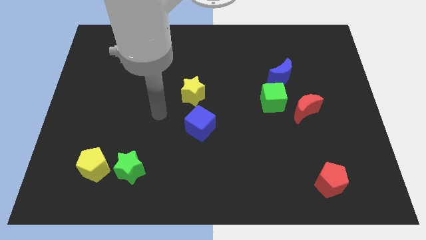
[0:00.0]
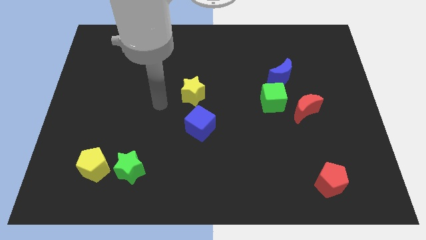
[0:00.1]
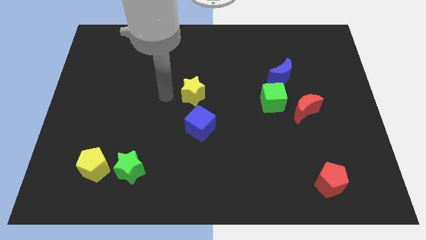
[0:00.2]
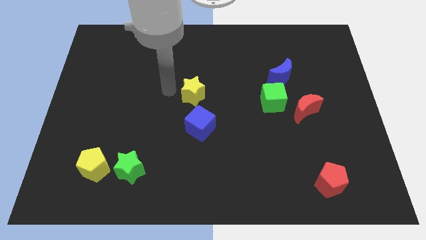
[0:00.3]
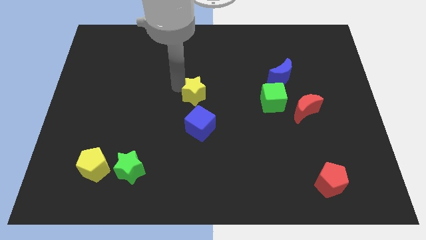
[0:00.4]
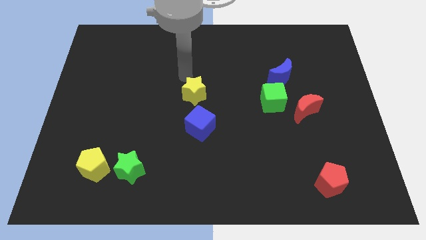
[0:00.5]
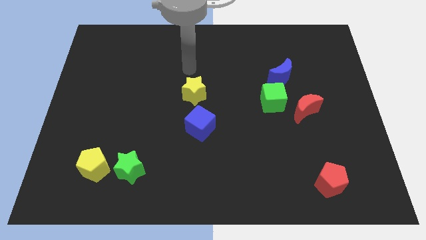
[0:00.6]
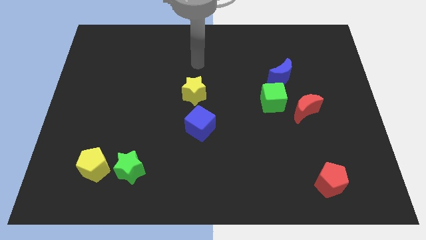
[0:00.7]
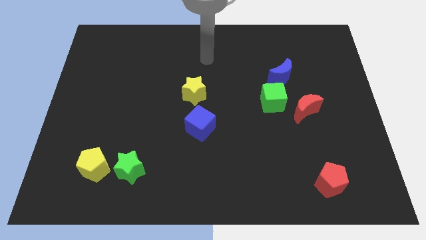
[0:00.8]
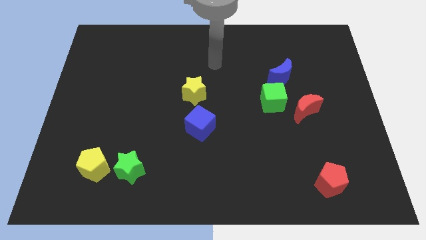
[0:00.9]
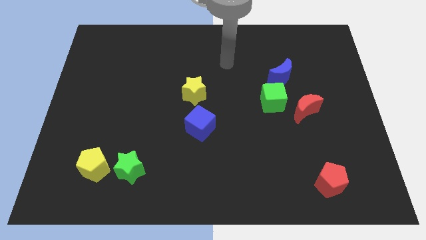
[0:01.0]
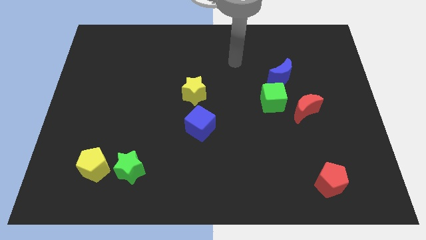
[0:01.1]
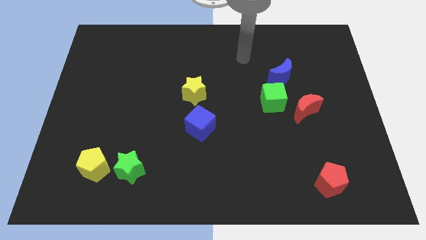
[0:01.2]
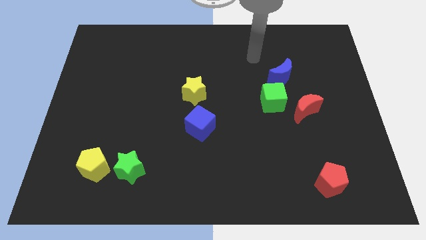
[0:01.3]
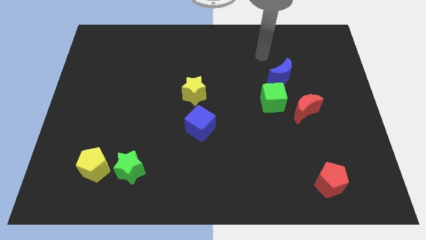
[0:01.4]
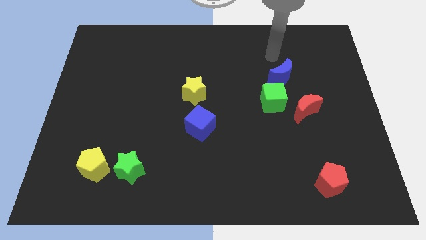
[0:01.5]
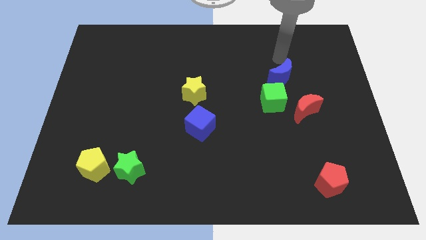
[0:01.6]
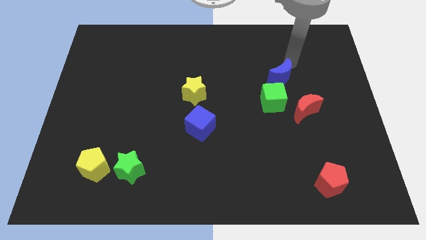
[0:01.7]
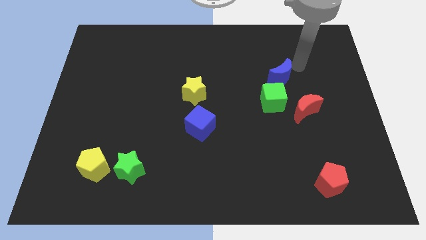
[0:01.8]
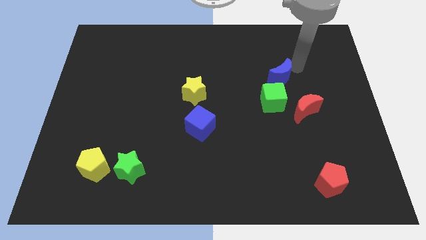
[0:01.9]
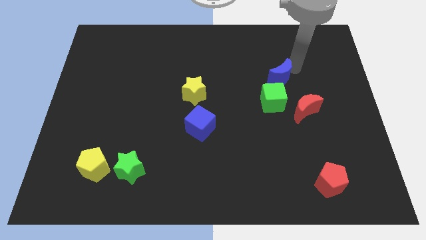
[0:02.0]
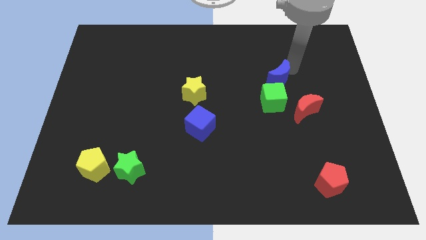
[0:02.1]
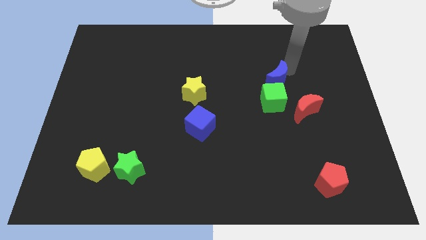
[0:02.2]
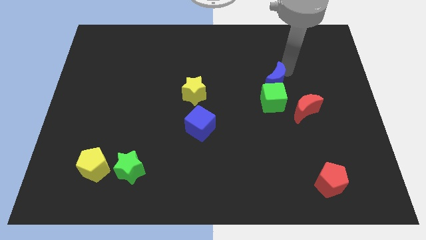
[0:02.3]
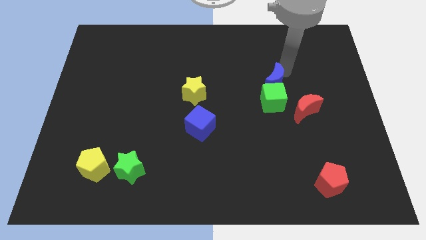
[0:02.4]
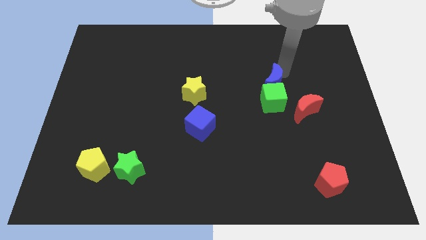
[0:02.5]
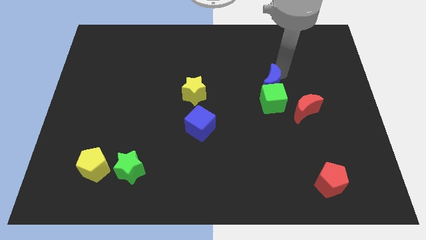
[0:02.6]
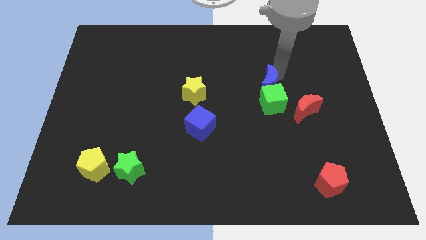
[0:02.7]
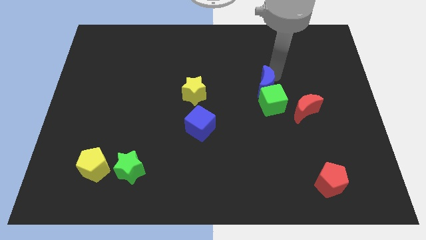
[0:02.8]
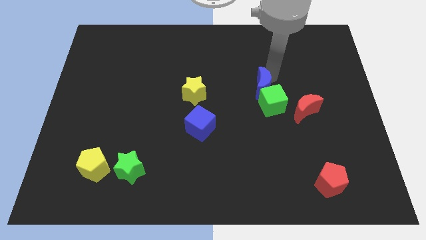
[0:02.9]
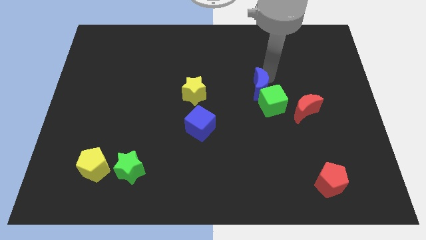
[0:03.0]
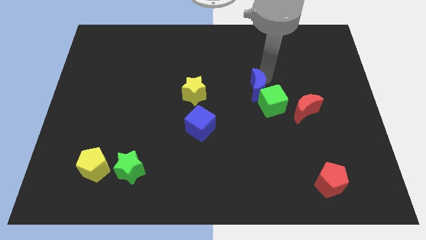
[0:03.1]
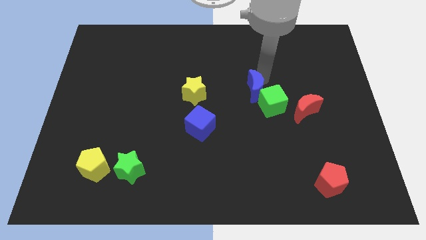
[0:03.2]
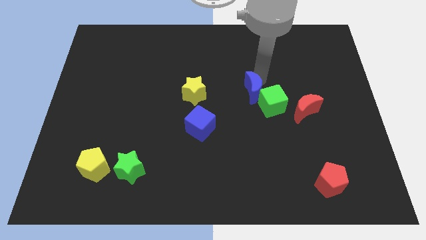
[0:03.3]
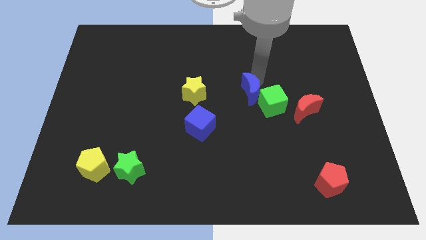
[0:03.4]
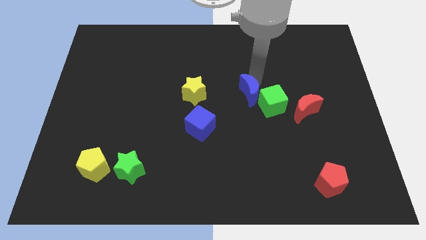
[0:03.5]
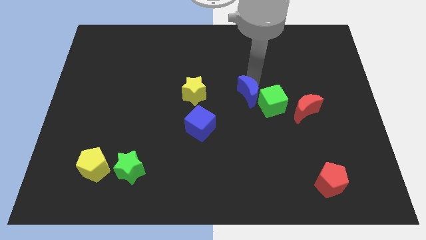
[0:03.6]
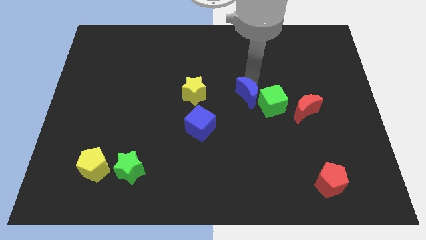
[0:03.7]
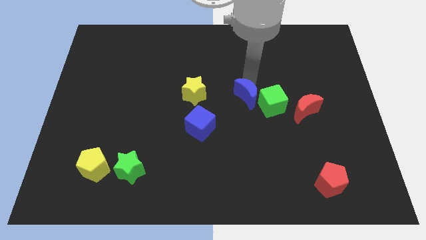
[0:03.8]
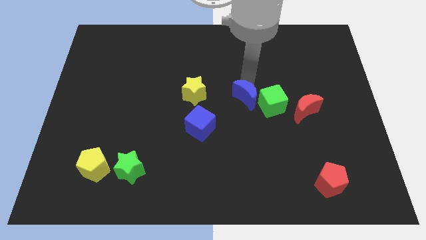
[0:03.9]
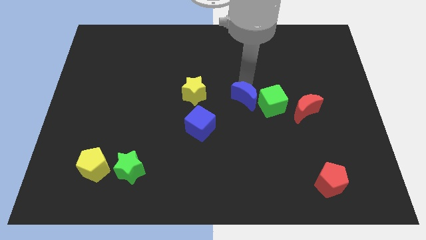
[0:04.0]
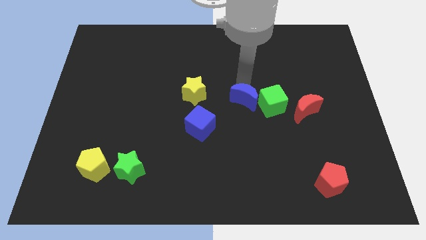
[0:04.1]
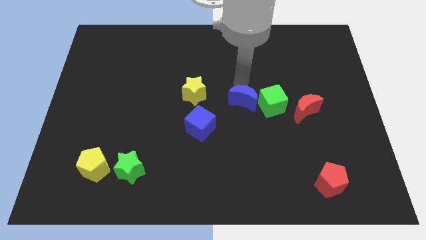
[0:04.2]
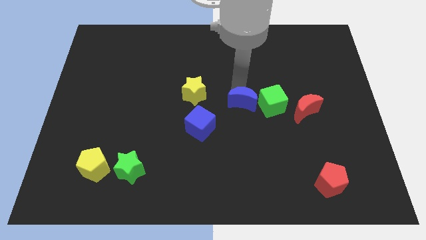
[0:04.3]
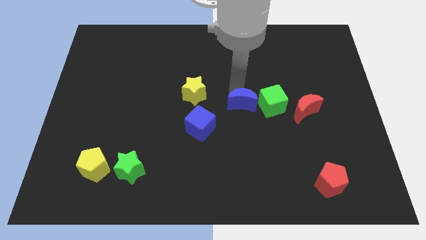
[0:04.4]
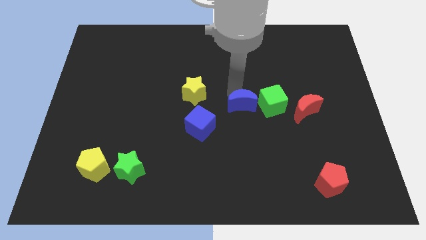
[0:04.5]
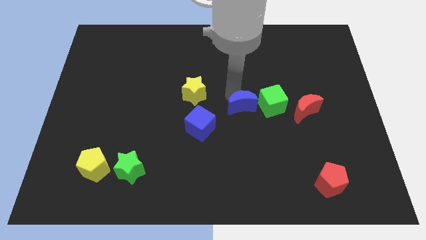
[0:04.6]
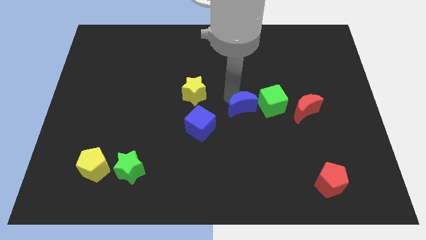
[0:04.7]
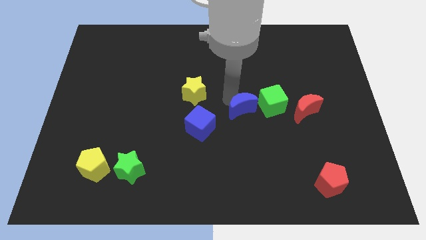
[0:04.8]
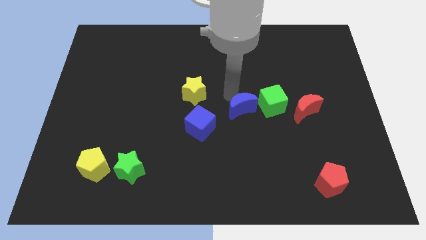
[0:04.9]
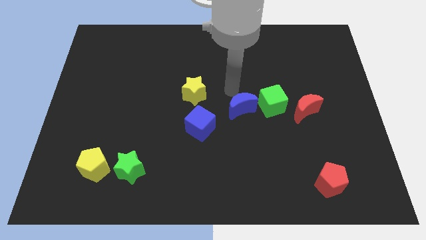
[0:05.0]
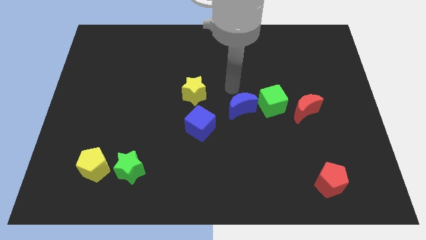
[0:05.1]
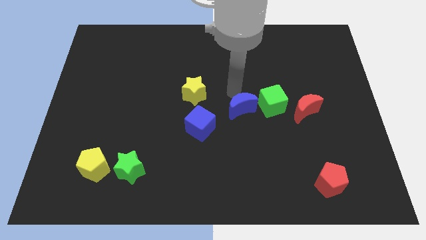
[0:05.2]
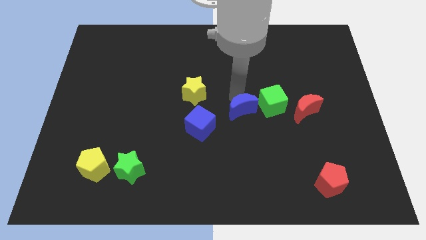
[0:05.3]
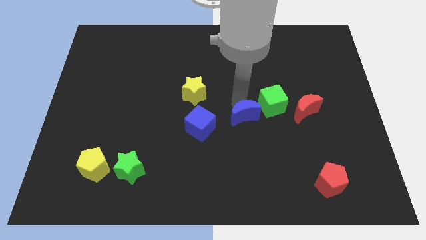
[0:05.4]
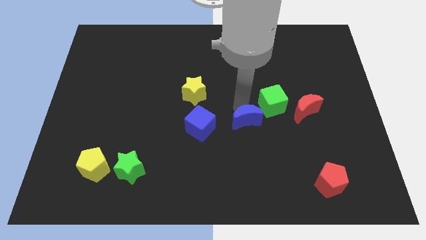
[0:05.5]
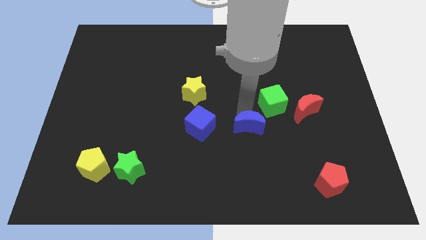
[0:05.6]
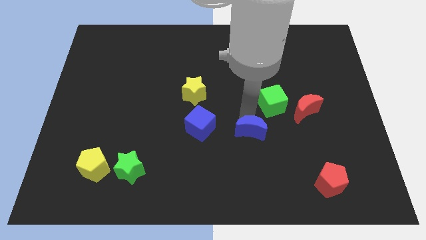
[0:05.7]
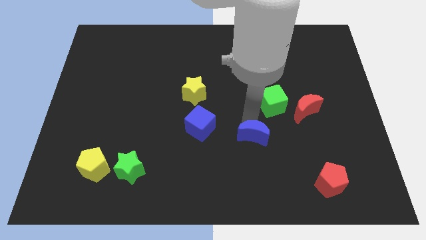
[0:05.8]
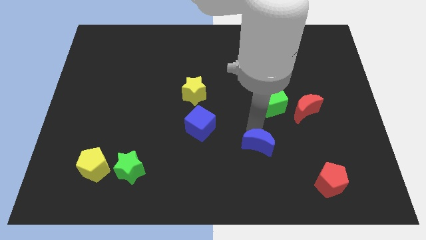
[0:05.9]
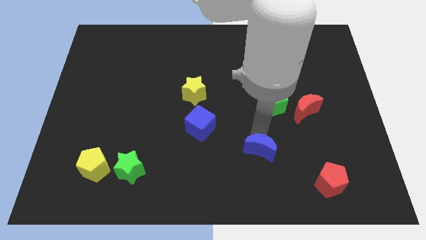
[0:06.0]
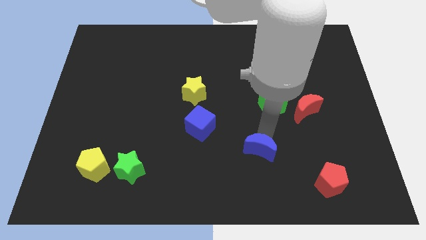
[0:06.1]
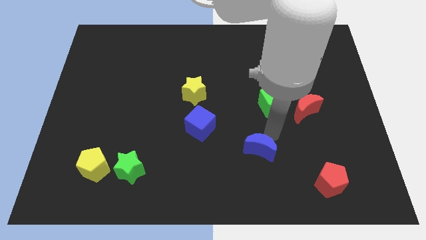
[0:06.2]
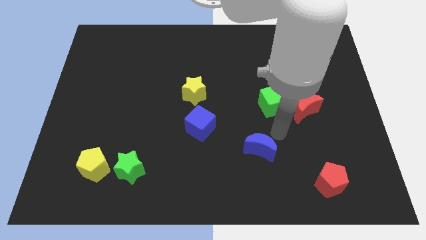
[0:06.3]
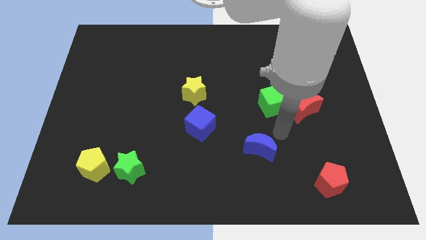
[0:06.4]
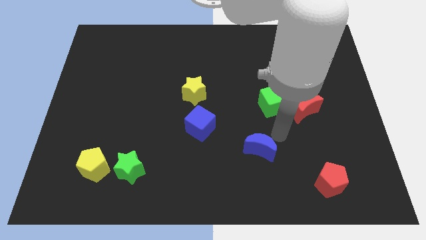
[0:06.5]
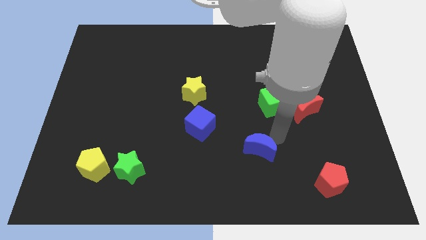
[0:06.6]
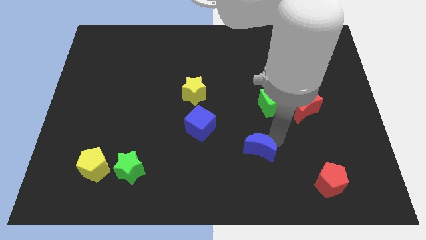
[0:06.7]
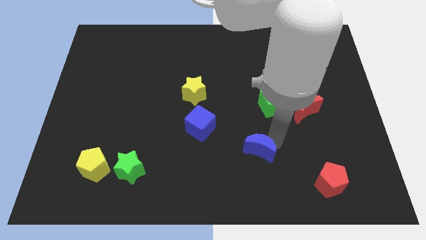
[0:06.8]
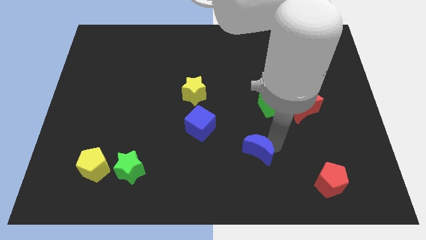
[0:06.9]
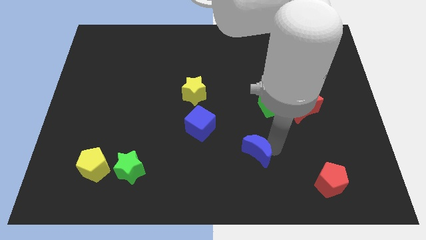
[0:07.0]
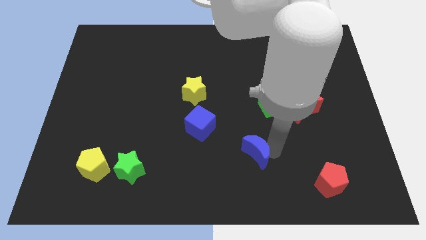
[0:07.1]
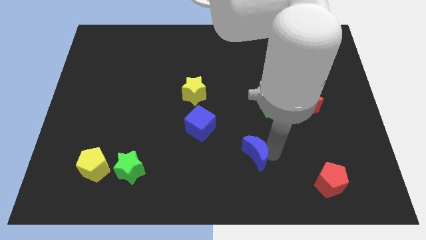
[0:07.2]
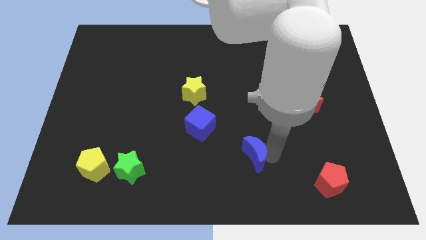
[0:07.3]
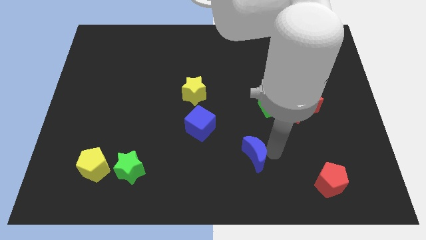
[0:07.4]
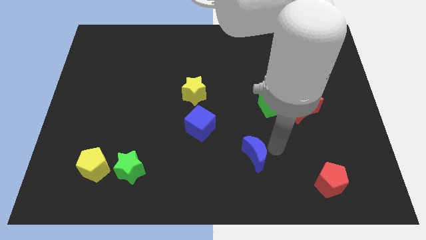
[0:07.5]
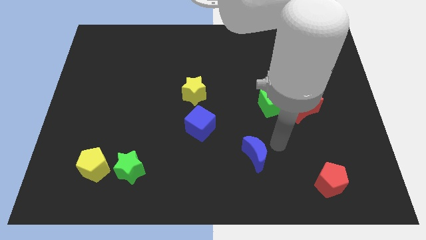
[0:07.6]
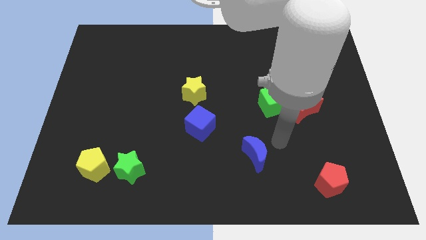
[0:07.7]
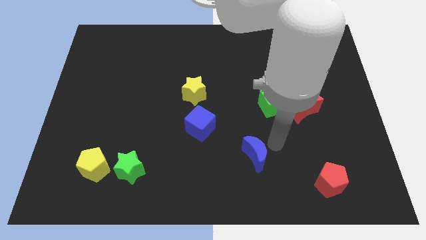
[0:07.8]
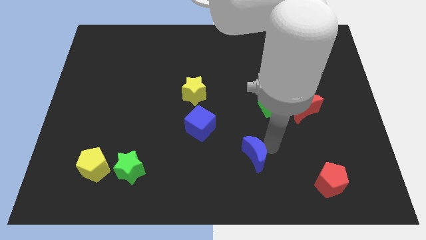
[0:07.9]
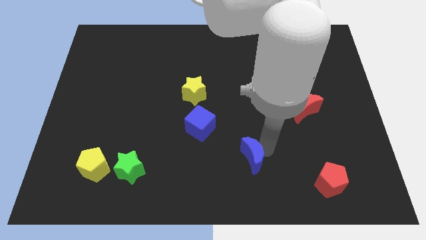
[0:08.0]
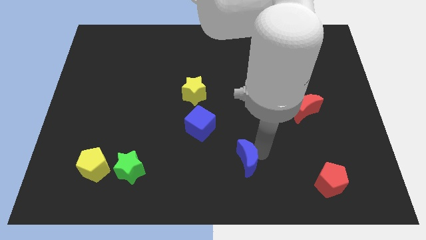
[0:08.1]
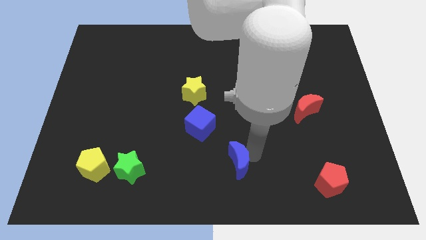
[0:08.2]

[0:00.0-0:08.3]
put the blue moon to the bottom
